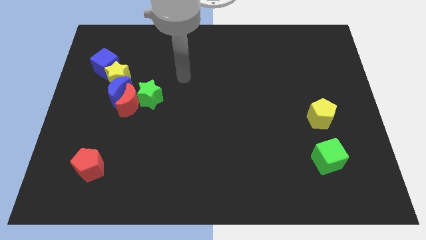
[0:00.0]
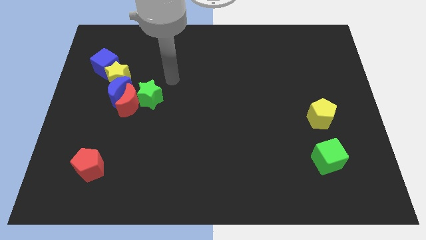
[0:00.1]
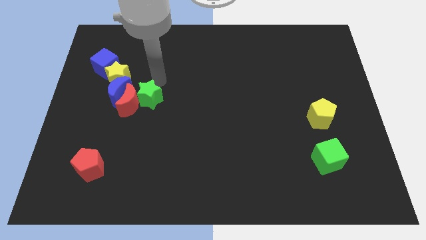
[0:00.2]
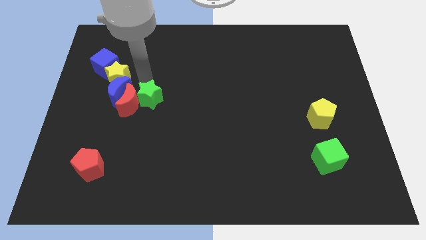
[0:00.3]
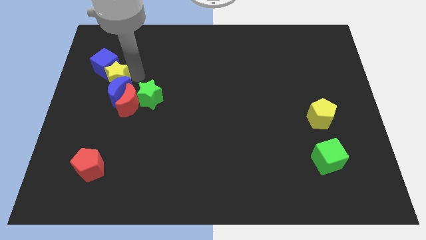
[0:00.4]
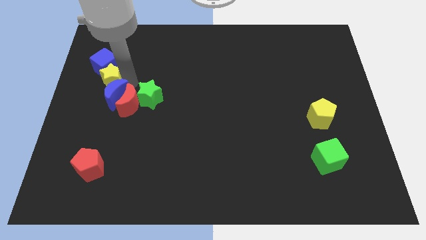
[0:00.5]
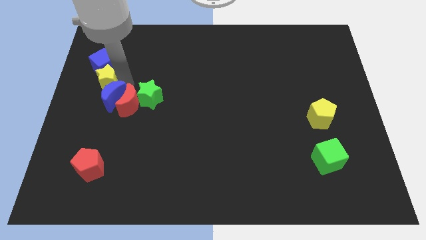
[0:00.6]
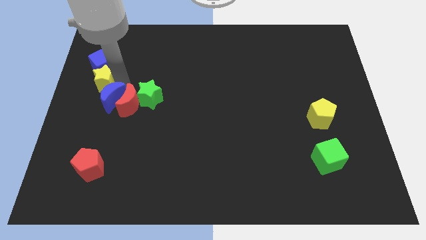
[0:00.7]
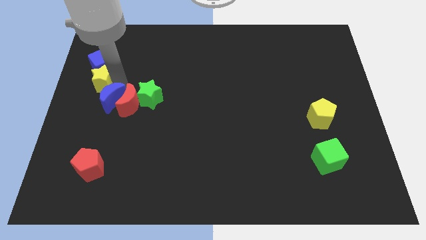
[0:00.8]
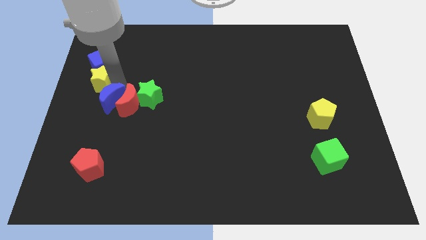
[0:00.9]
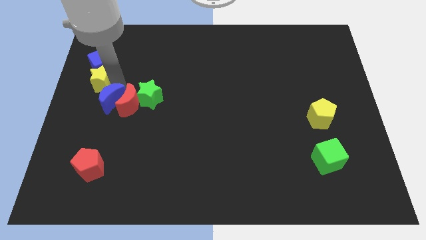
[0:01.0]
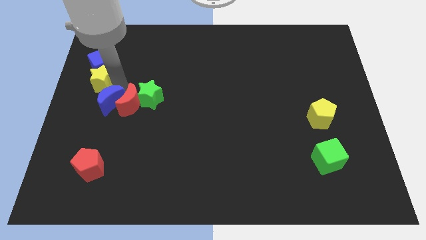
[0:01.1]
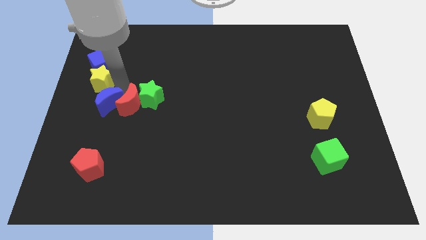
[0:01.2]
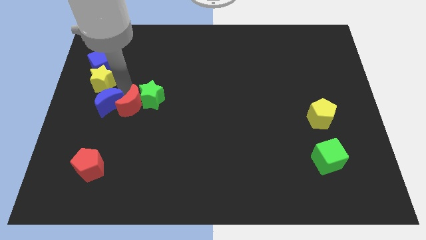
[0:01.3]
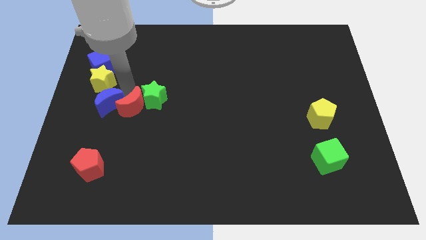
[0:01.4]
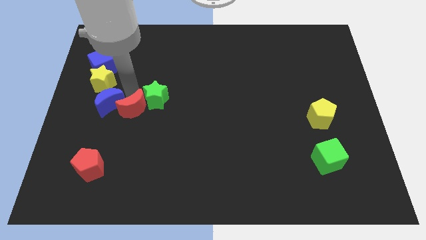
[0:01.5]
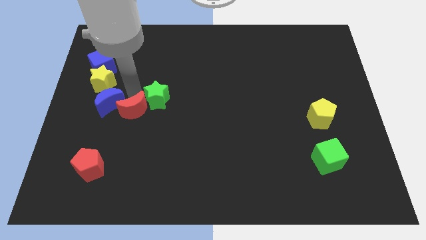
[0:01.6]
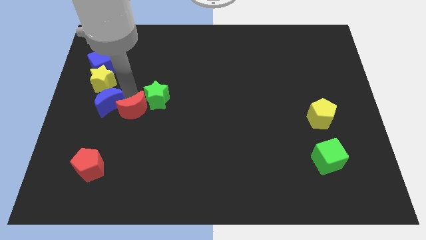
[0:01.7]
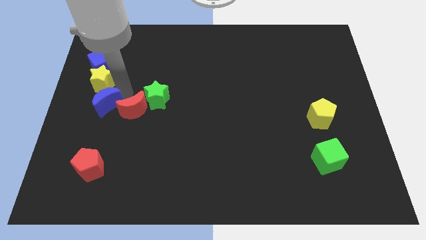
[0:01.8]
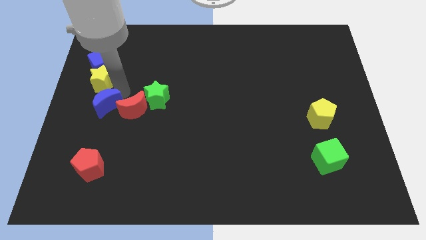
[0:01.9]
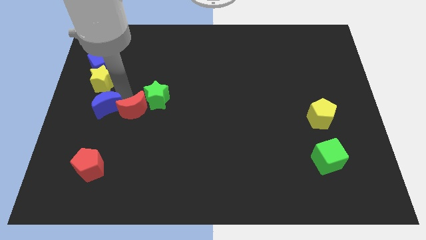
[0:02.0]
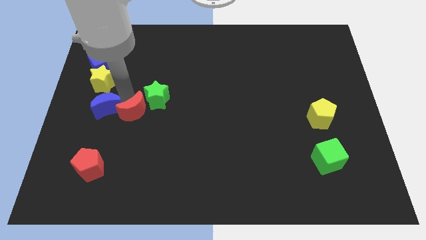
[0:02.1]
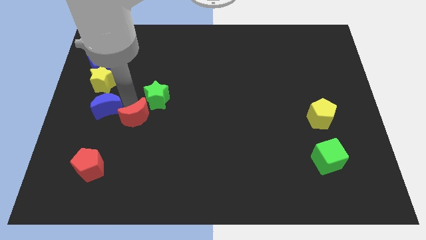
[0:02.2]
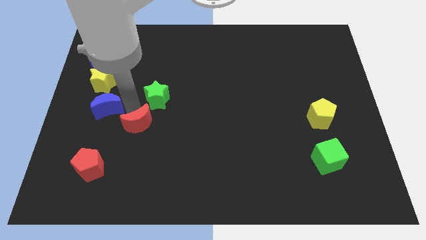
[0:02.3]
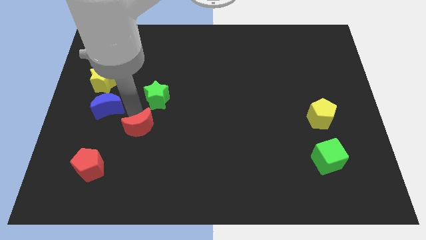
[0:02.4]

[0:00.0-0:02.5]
separate the red moon from the group

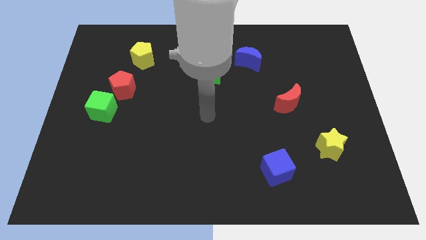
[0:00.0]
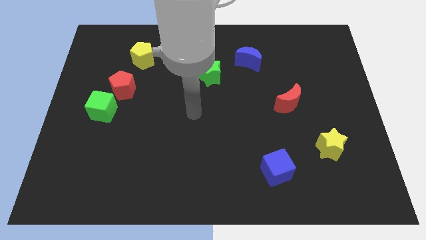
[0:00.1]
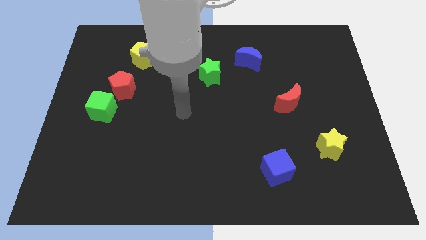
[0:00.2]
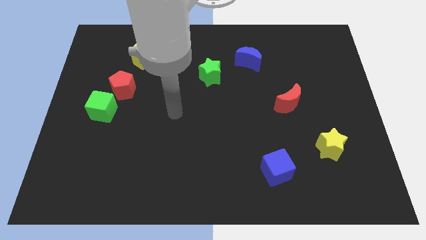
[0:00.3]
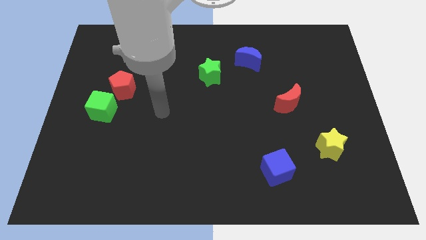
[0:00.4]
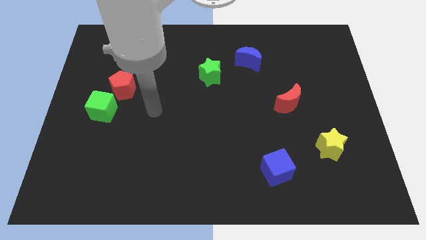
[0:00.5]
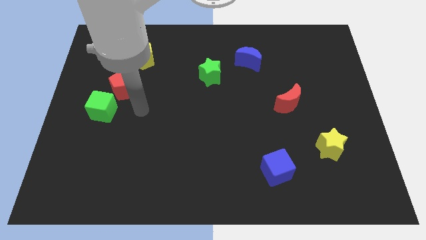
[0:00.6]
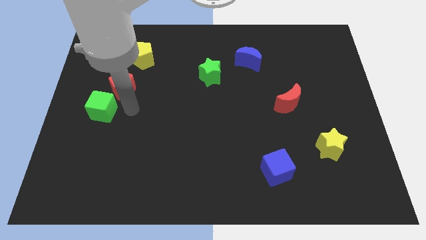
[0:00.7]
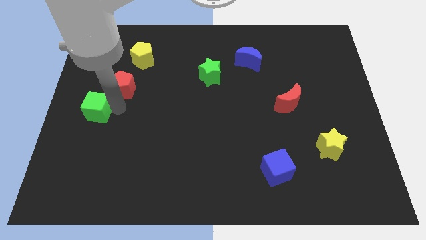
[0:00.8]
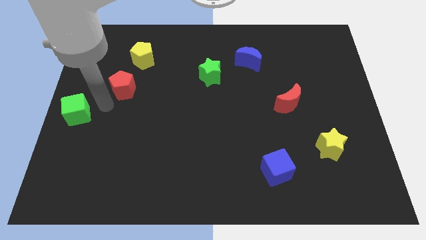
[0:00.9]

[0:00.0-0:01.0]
separate the red pentagon from the green cube

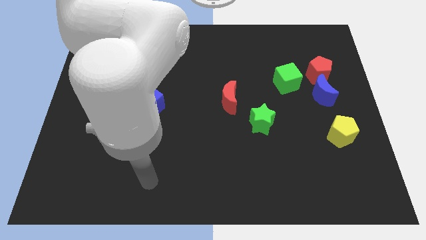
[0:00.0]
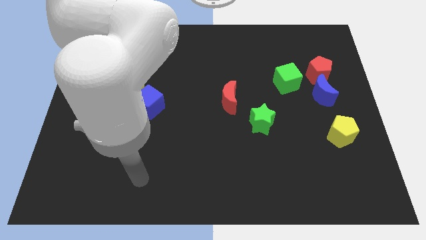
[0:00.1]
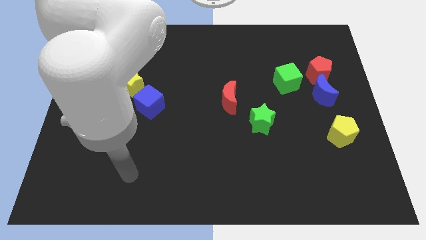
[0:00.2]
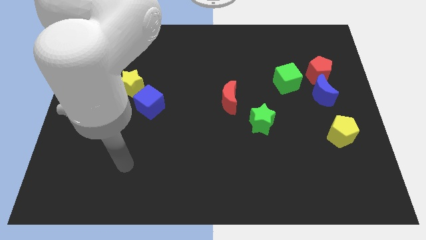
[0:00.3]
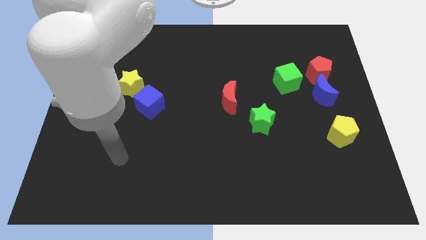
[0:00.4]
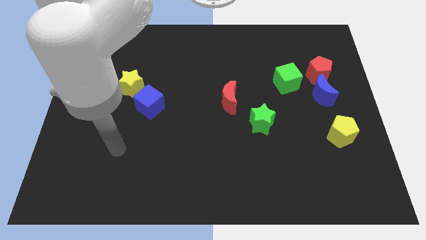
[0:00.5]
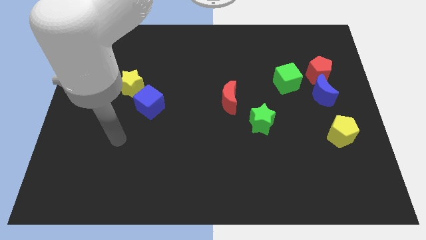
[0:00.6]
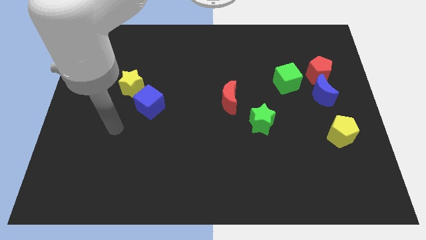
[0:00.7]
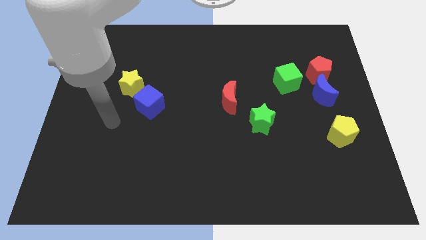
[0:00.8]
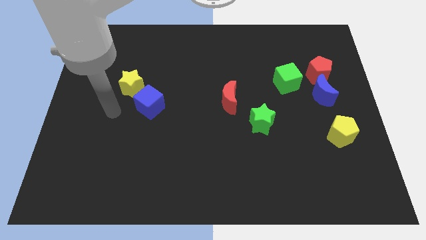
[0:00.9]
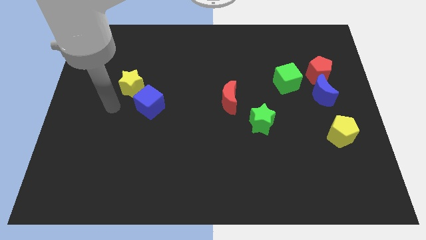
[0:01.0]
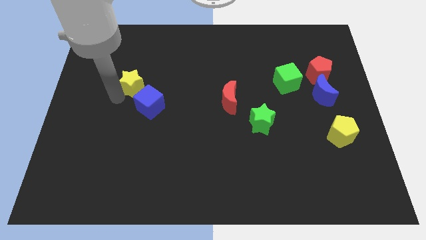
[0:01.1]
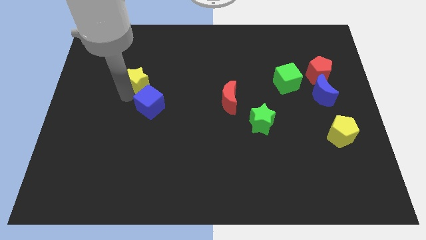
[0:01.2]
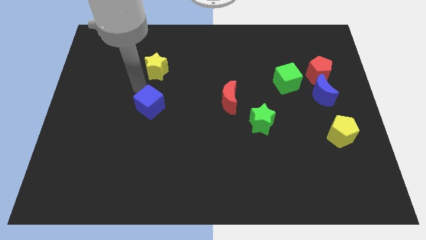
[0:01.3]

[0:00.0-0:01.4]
pull the blue cube apart from the yellow star

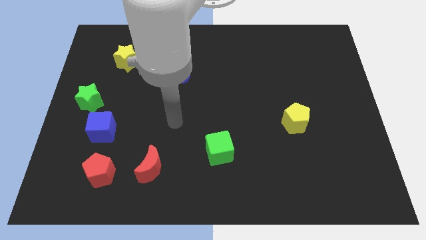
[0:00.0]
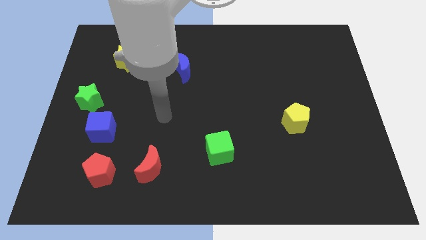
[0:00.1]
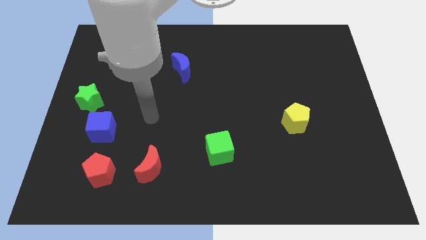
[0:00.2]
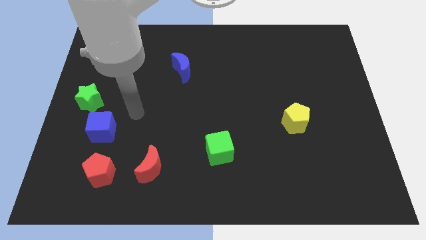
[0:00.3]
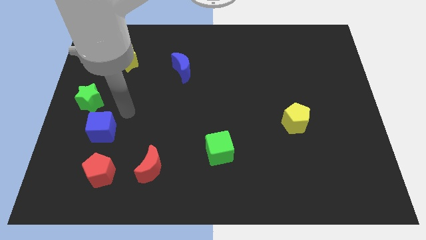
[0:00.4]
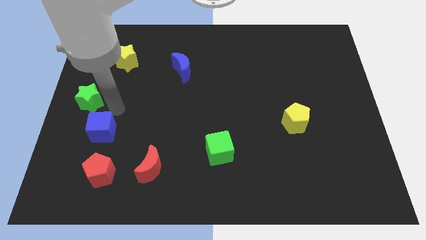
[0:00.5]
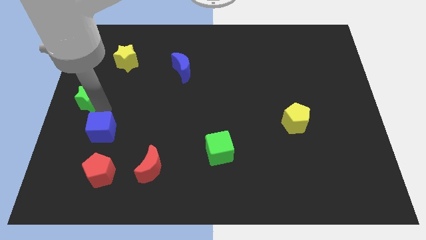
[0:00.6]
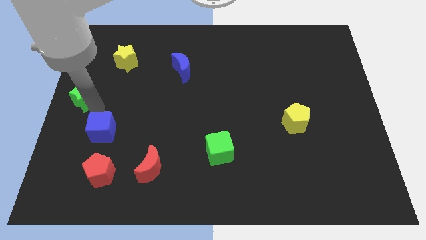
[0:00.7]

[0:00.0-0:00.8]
separate the blue cube from the green star

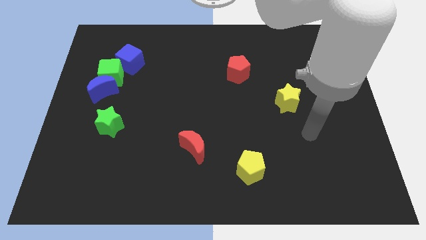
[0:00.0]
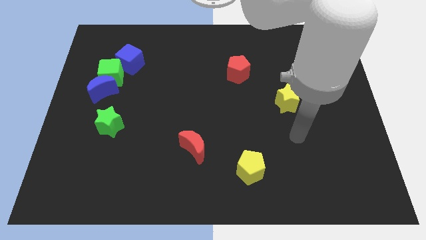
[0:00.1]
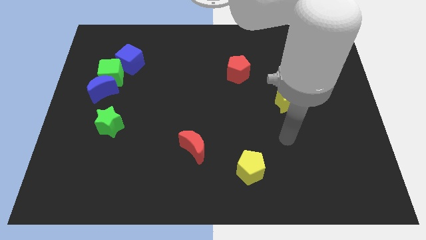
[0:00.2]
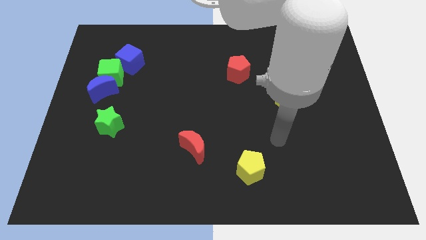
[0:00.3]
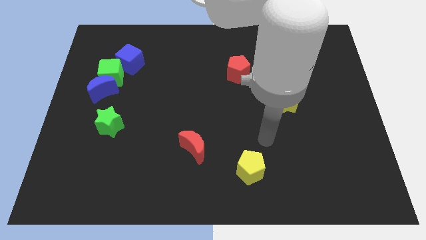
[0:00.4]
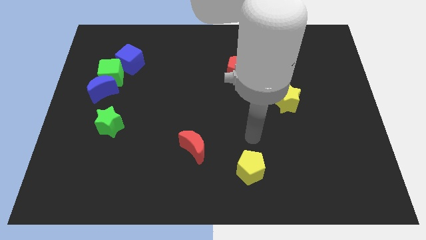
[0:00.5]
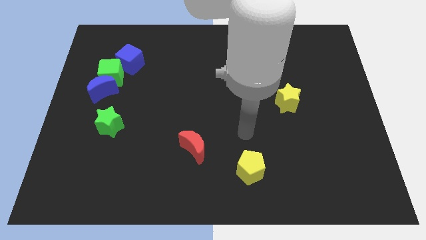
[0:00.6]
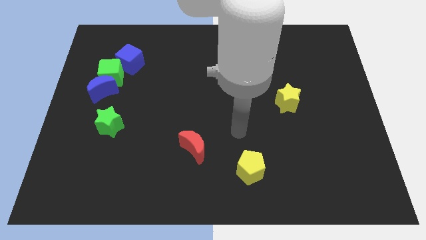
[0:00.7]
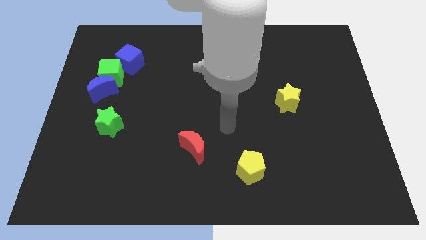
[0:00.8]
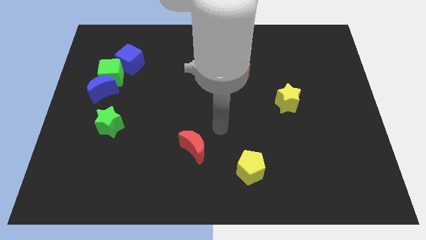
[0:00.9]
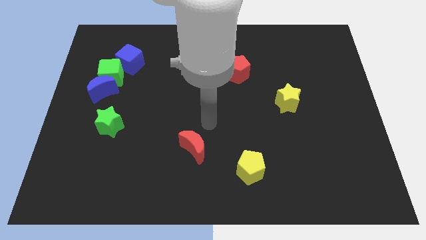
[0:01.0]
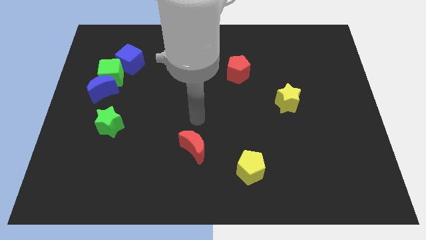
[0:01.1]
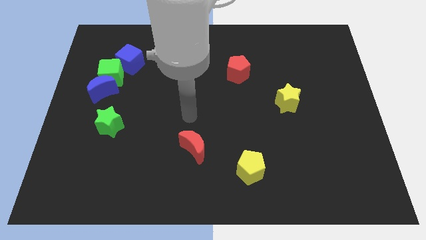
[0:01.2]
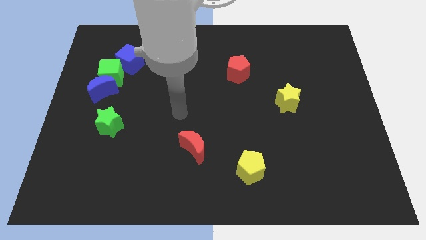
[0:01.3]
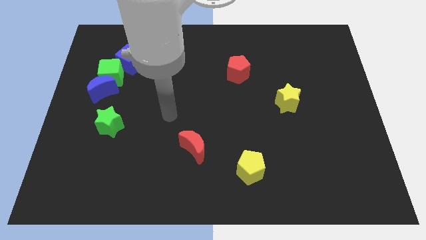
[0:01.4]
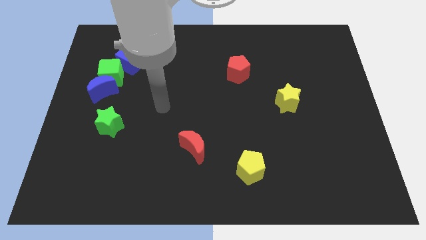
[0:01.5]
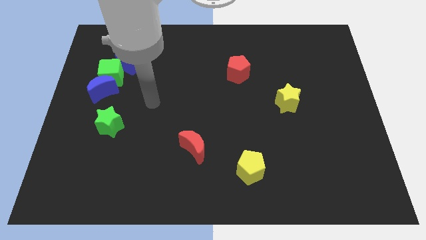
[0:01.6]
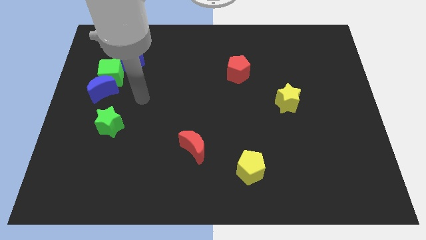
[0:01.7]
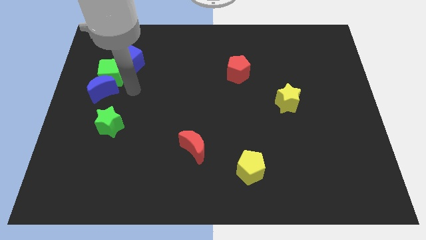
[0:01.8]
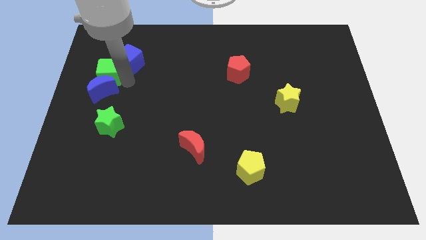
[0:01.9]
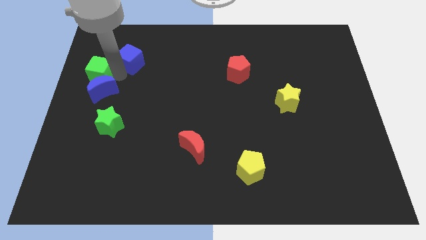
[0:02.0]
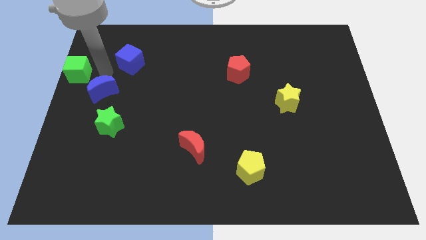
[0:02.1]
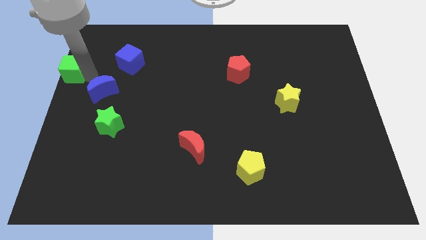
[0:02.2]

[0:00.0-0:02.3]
separate the blue moon from the green cube

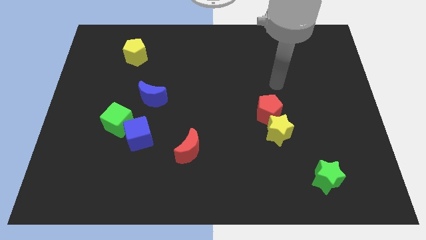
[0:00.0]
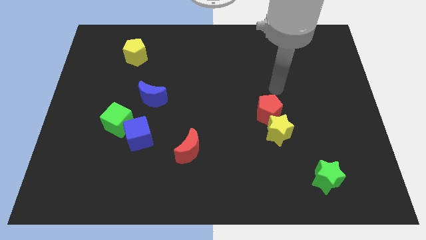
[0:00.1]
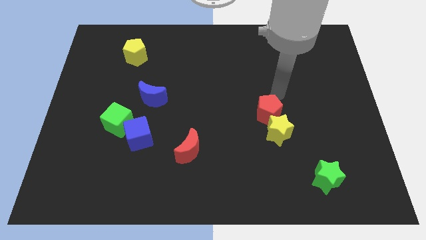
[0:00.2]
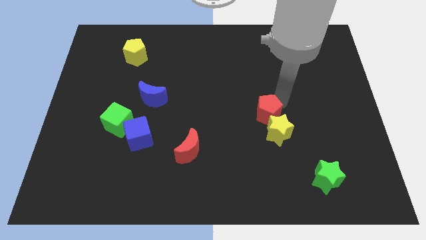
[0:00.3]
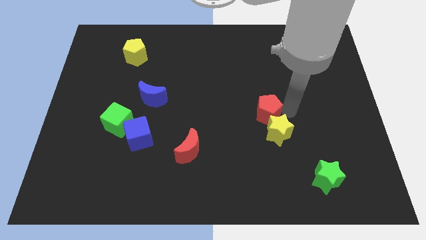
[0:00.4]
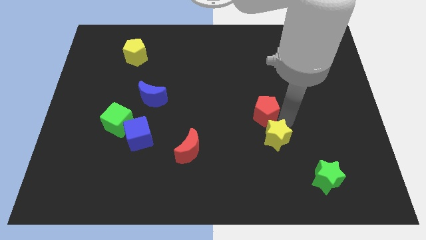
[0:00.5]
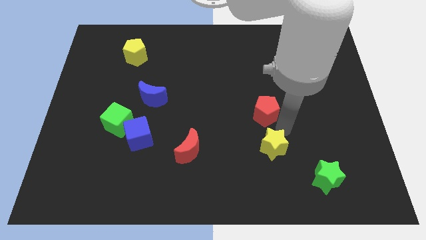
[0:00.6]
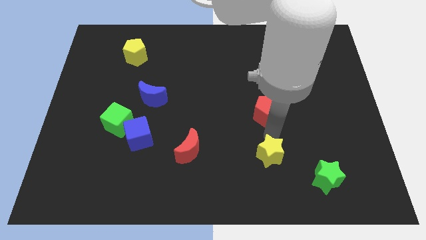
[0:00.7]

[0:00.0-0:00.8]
pull the red pentagon apart from the yellow star

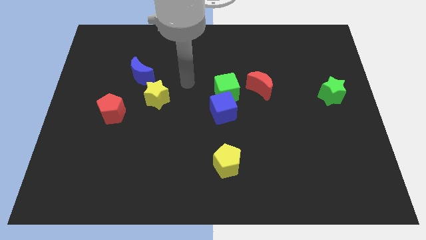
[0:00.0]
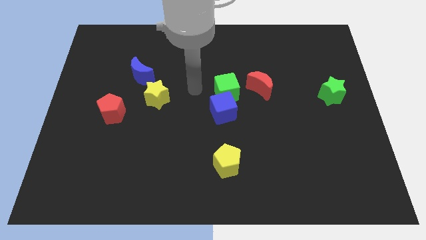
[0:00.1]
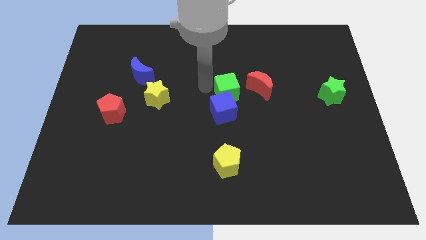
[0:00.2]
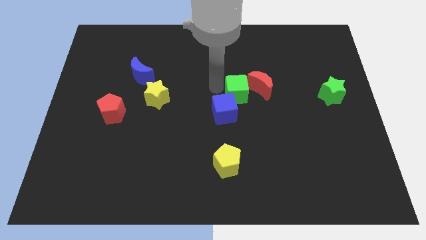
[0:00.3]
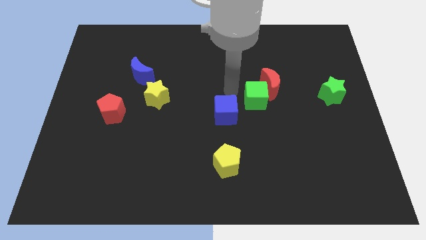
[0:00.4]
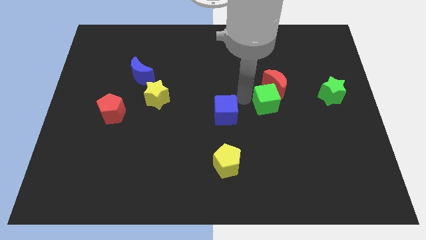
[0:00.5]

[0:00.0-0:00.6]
pull the blue cube apart from the green cube

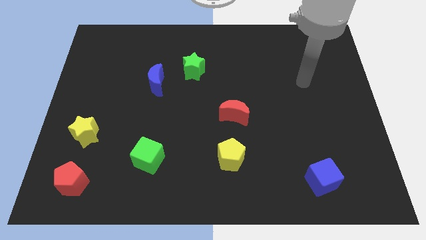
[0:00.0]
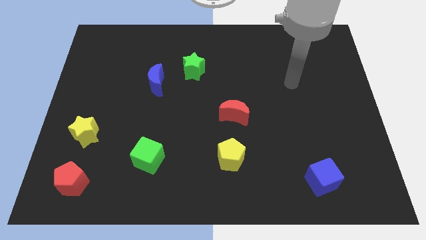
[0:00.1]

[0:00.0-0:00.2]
pull the blue moon apart from the green star
